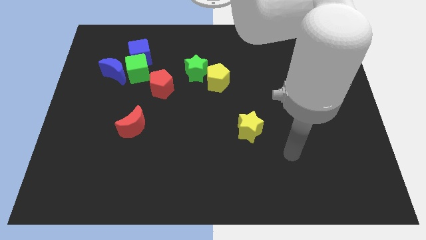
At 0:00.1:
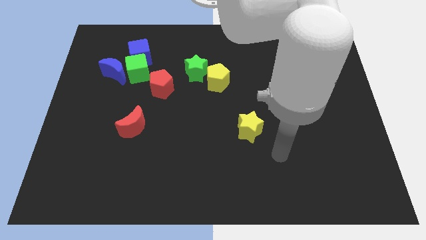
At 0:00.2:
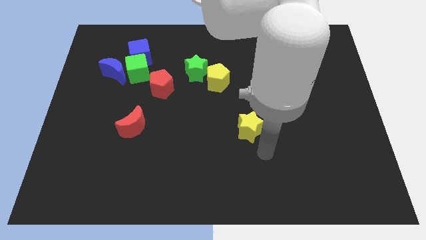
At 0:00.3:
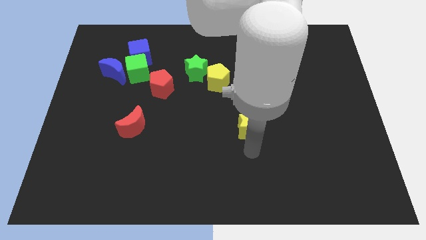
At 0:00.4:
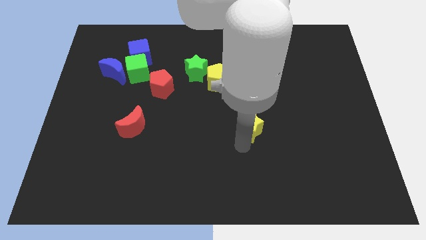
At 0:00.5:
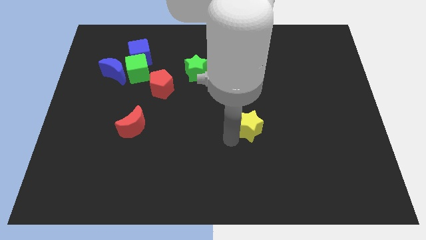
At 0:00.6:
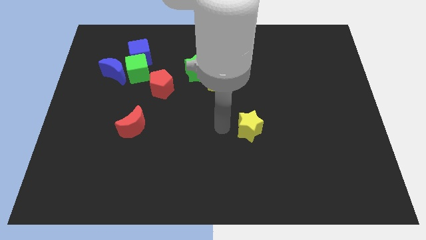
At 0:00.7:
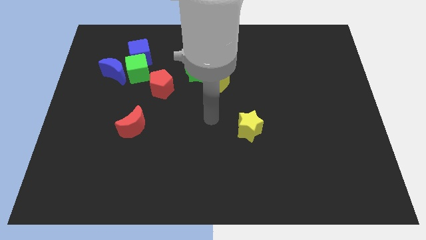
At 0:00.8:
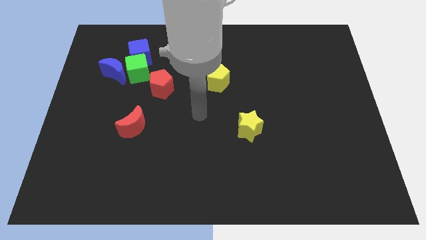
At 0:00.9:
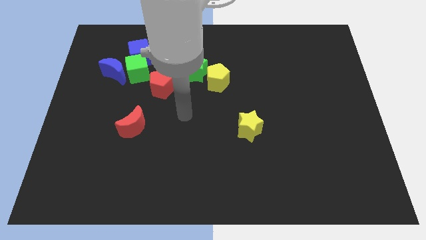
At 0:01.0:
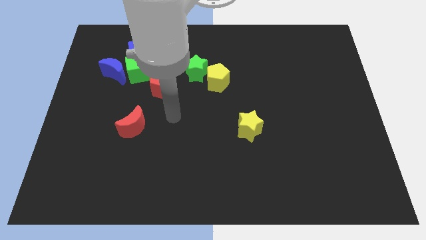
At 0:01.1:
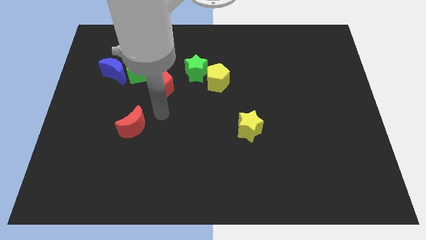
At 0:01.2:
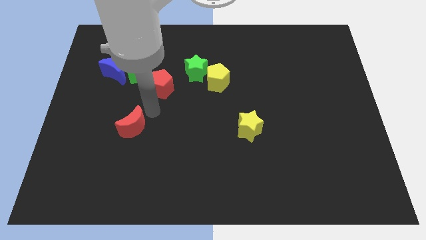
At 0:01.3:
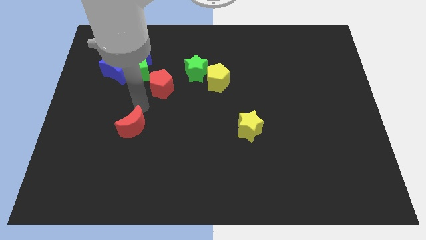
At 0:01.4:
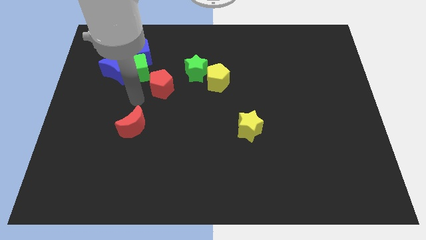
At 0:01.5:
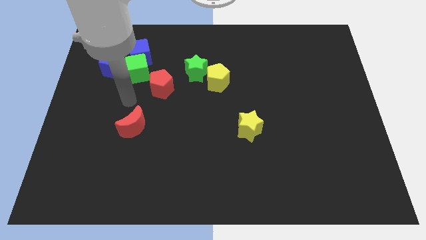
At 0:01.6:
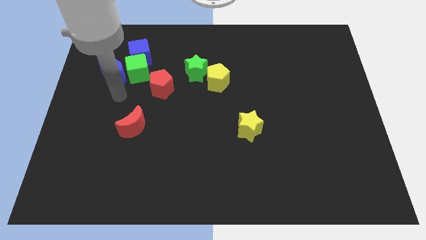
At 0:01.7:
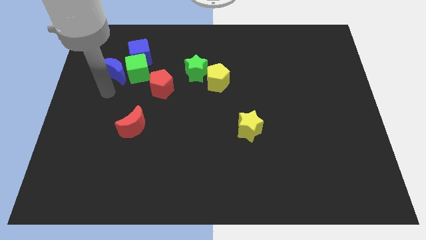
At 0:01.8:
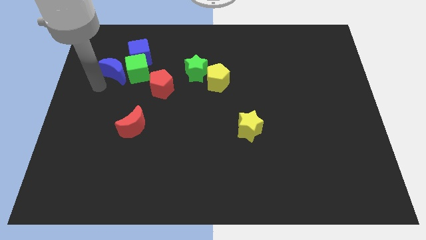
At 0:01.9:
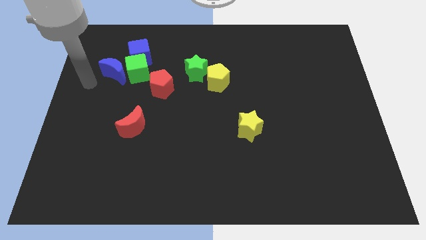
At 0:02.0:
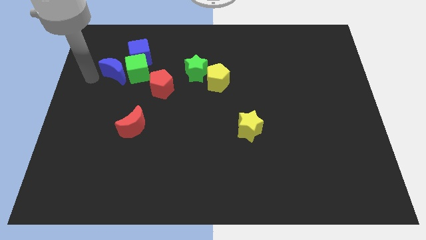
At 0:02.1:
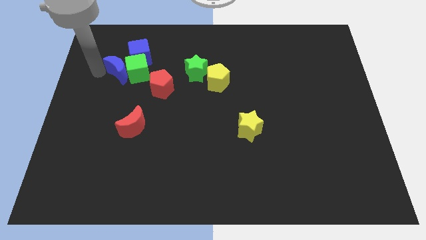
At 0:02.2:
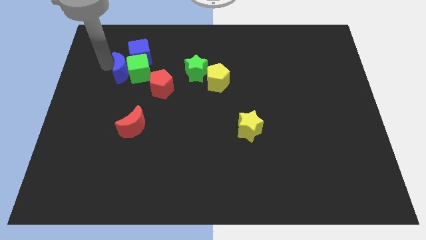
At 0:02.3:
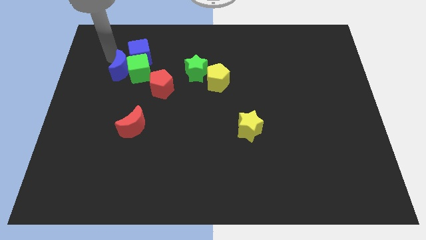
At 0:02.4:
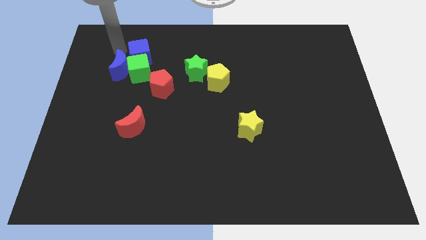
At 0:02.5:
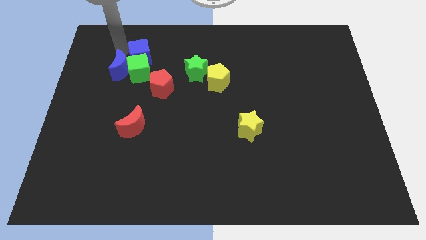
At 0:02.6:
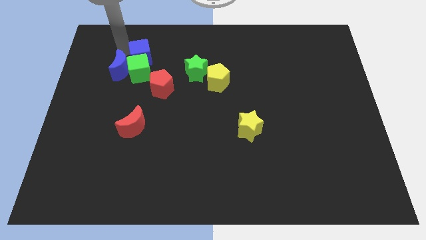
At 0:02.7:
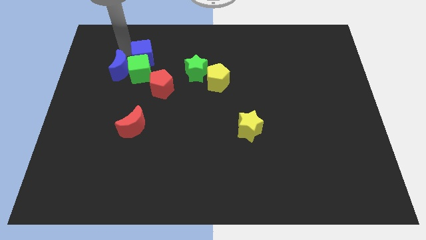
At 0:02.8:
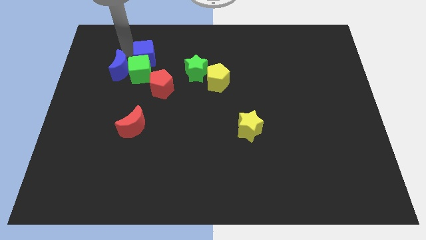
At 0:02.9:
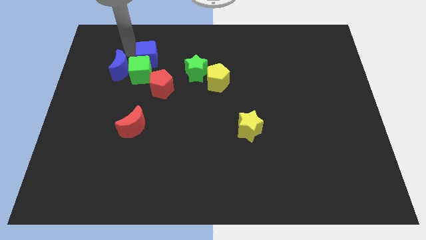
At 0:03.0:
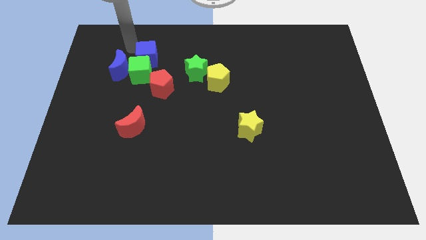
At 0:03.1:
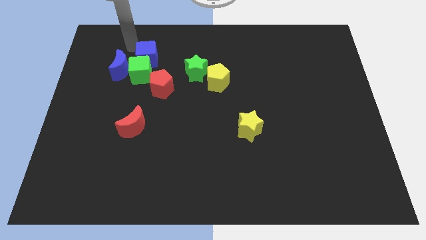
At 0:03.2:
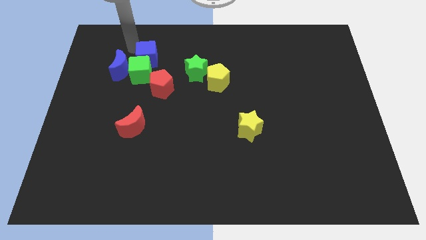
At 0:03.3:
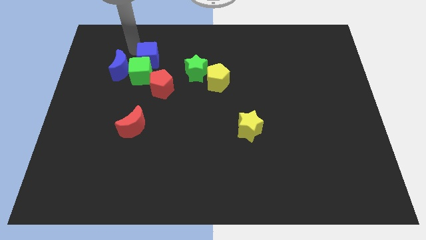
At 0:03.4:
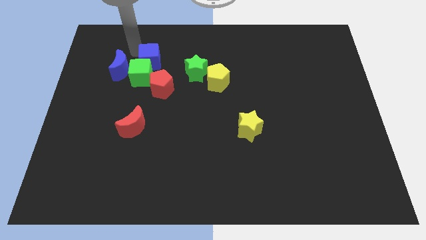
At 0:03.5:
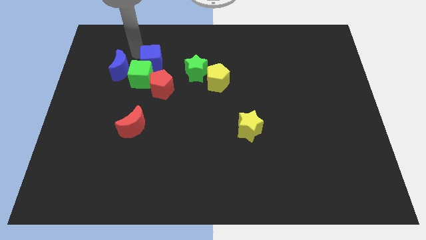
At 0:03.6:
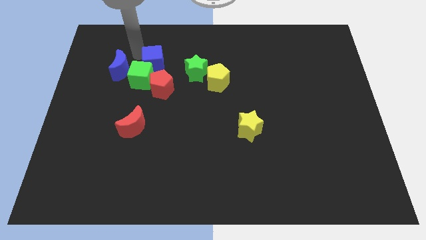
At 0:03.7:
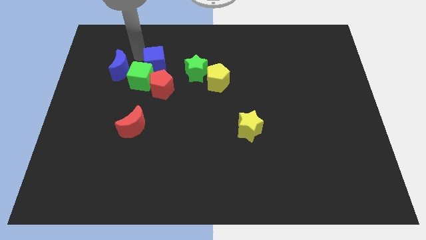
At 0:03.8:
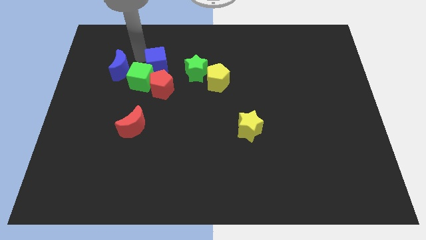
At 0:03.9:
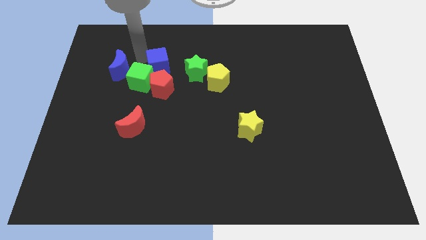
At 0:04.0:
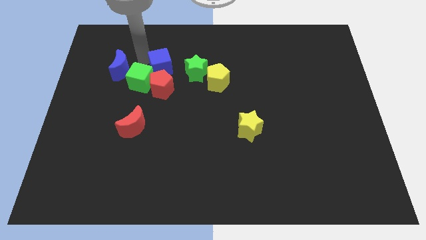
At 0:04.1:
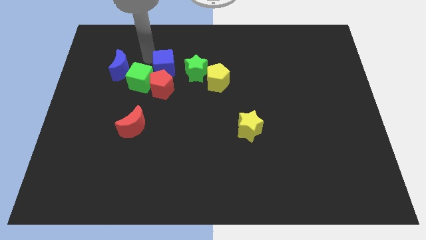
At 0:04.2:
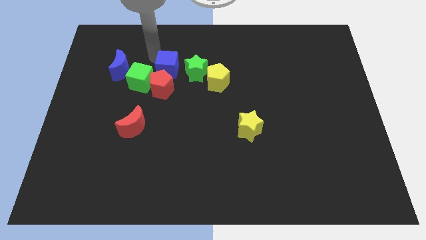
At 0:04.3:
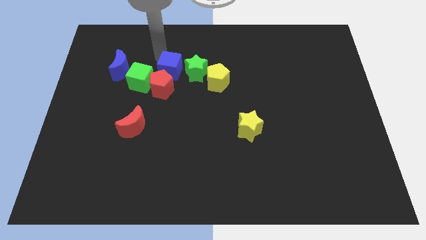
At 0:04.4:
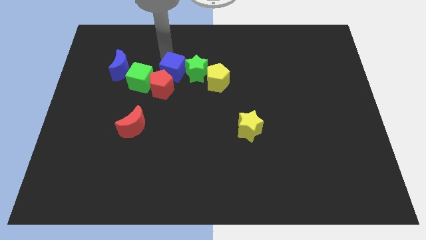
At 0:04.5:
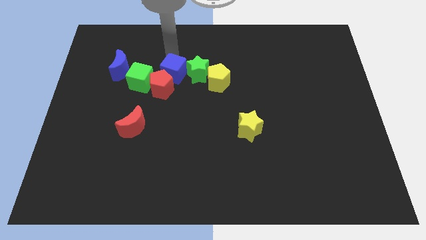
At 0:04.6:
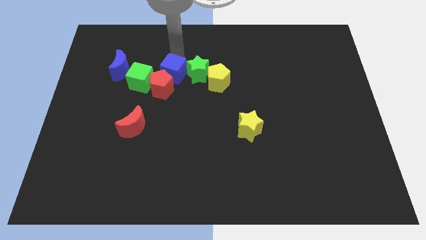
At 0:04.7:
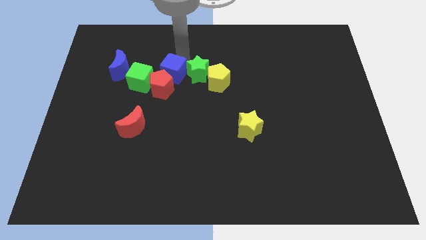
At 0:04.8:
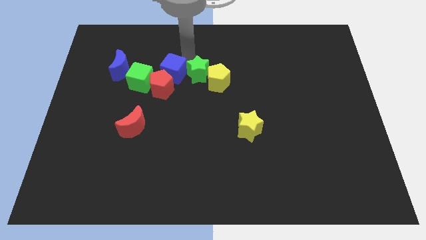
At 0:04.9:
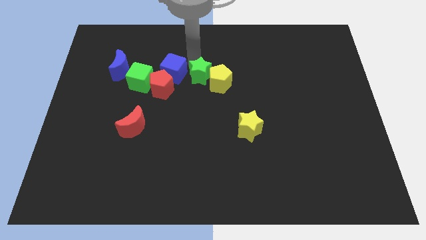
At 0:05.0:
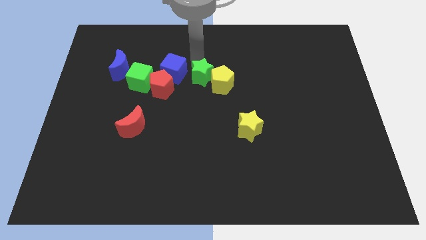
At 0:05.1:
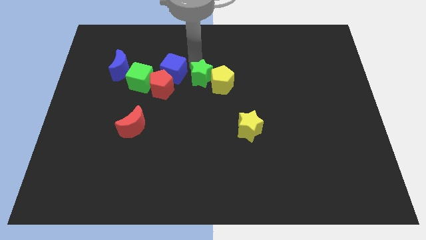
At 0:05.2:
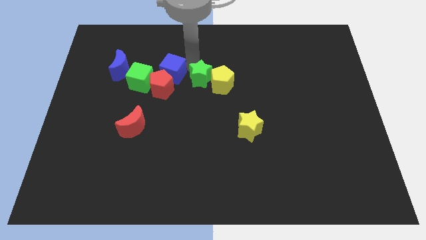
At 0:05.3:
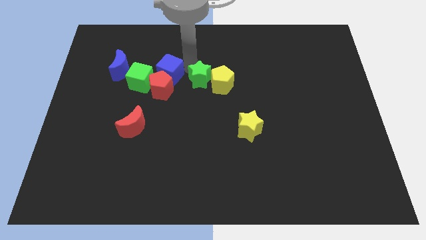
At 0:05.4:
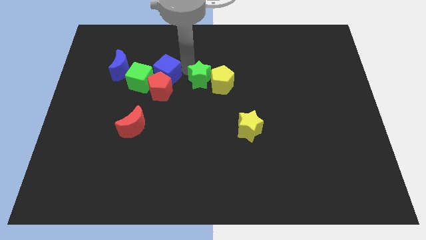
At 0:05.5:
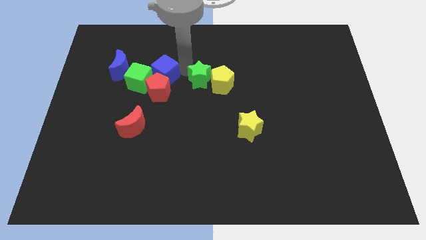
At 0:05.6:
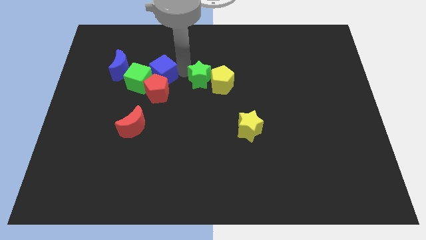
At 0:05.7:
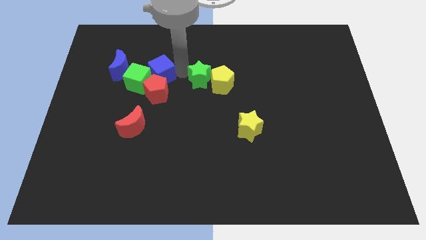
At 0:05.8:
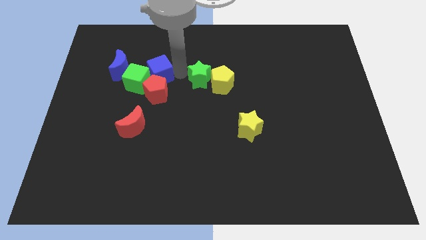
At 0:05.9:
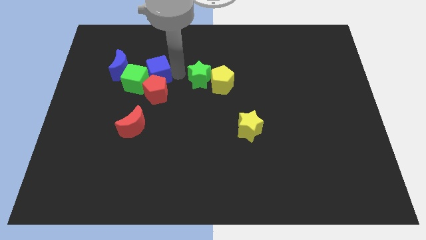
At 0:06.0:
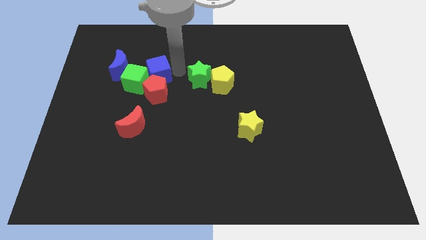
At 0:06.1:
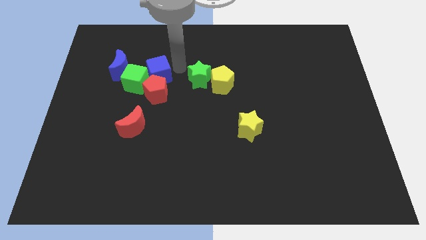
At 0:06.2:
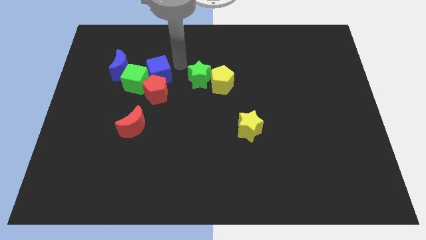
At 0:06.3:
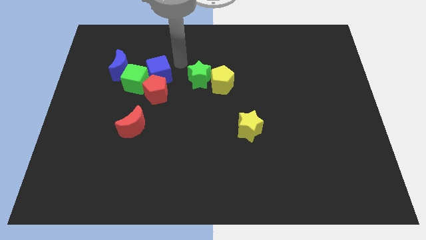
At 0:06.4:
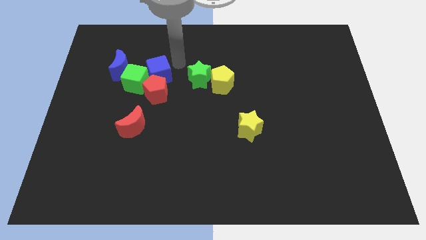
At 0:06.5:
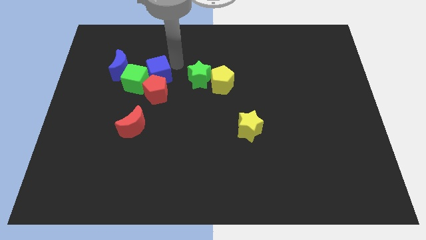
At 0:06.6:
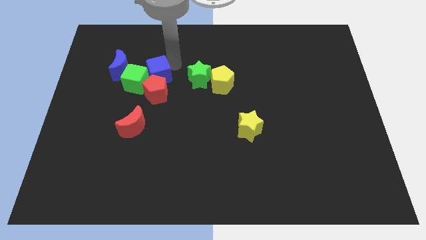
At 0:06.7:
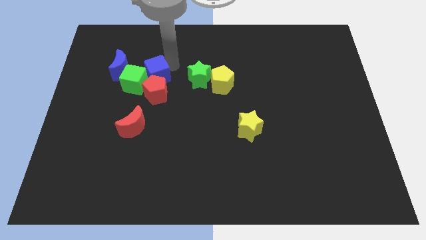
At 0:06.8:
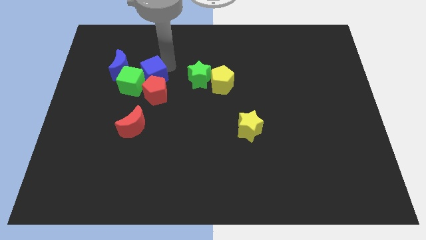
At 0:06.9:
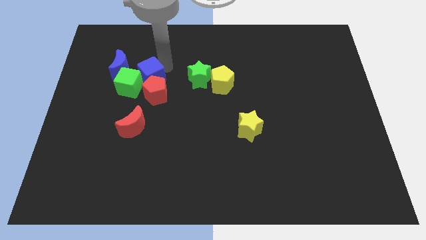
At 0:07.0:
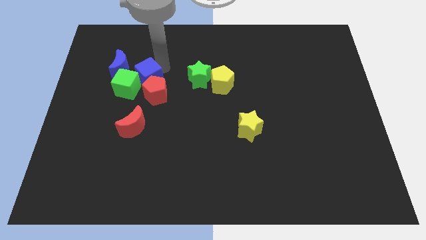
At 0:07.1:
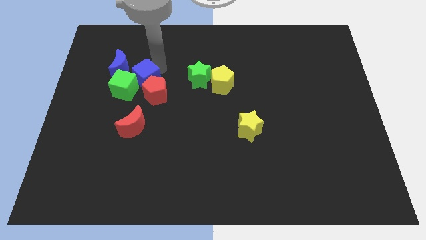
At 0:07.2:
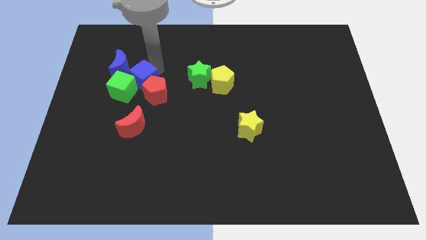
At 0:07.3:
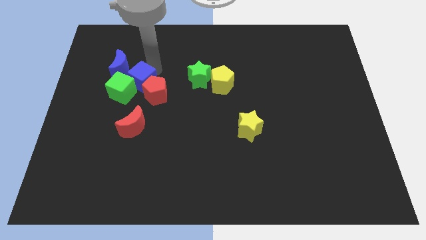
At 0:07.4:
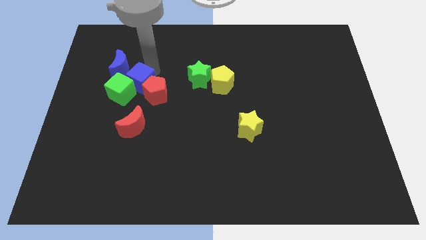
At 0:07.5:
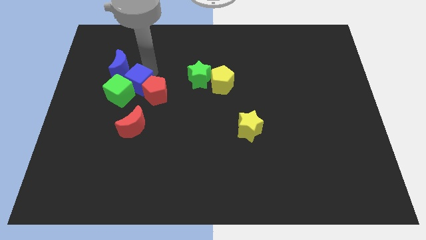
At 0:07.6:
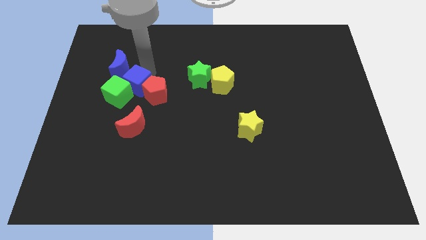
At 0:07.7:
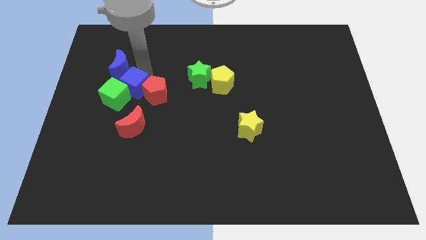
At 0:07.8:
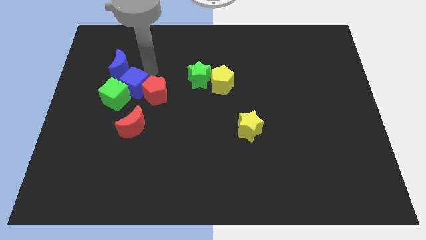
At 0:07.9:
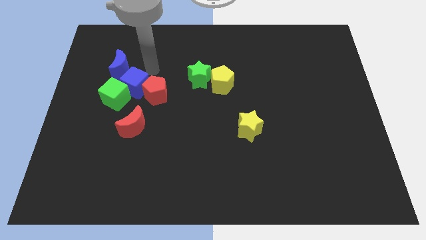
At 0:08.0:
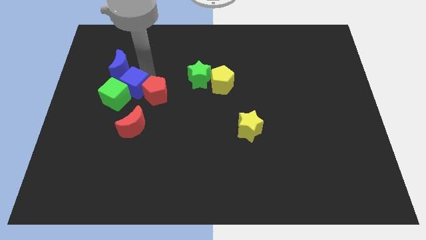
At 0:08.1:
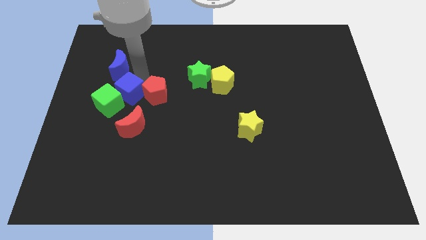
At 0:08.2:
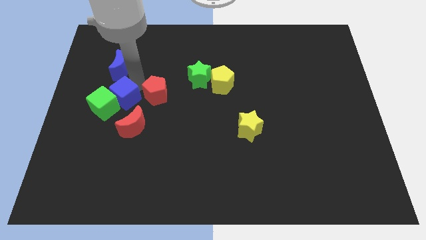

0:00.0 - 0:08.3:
slide the blue cube to the top left of the red moon
